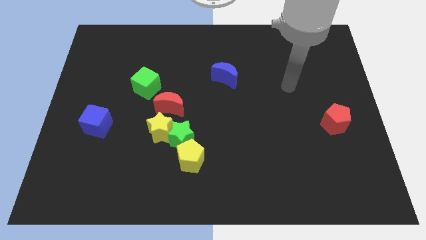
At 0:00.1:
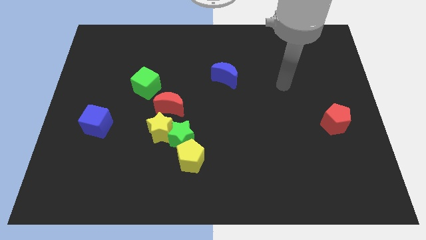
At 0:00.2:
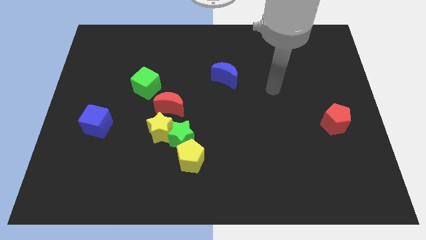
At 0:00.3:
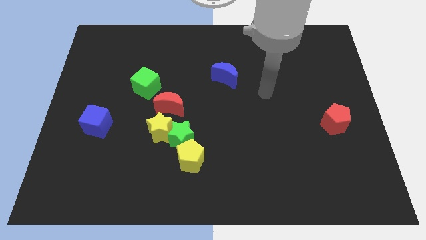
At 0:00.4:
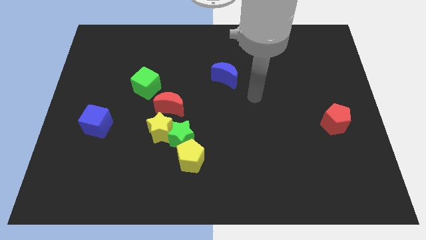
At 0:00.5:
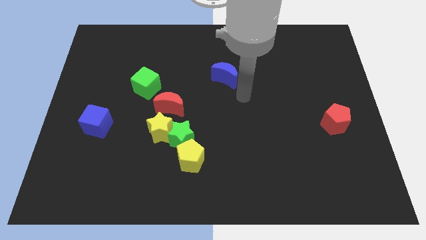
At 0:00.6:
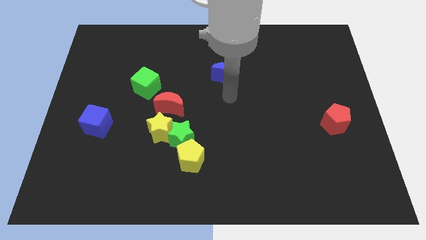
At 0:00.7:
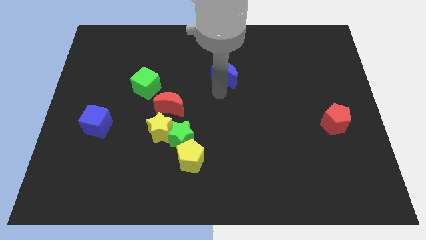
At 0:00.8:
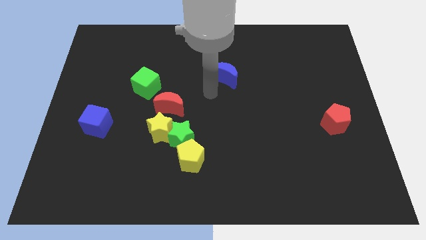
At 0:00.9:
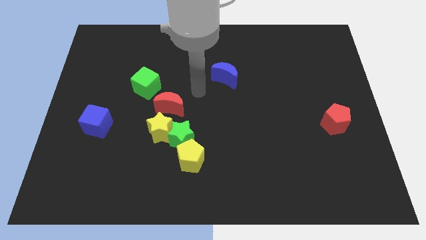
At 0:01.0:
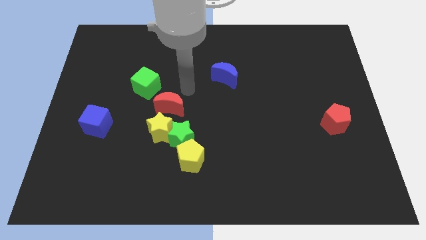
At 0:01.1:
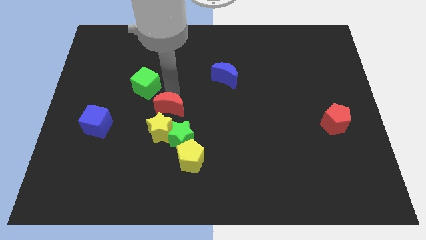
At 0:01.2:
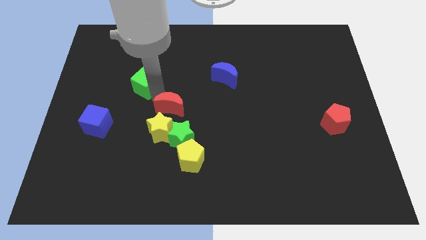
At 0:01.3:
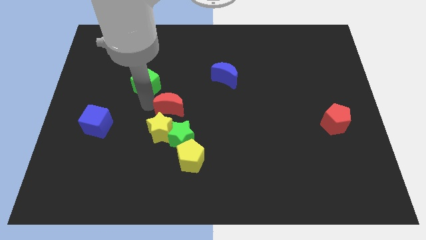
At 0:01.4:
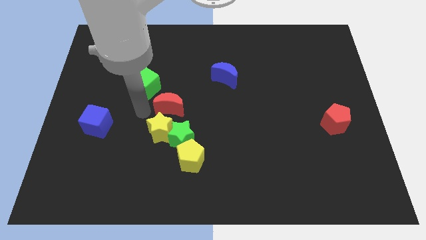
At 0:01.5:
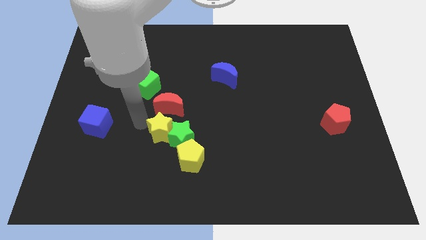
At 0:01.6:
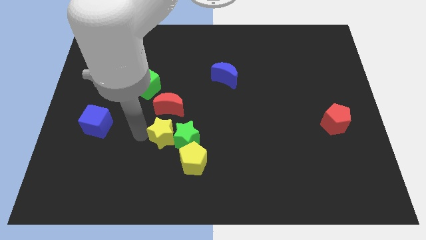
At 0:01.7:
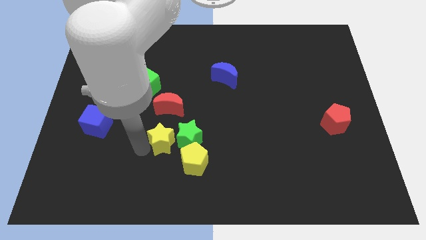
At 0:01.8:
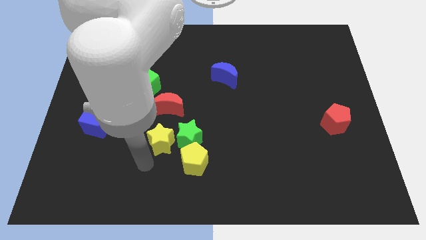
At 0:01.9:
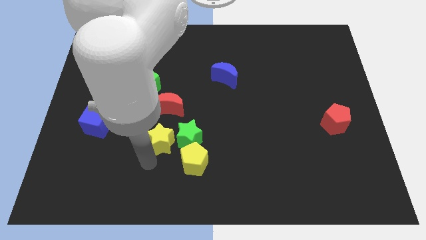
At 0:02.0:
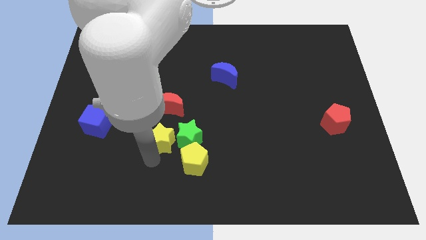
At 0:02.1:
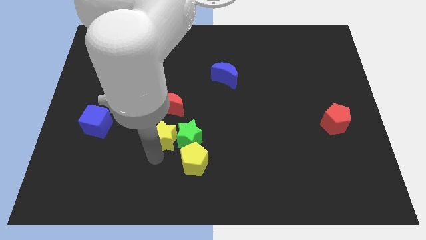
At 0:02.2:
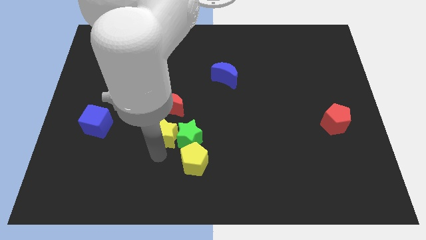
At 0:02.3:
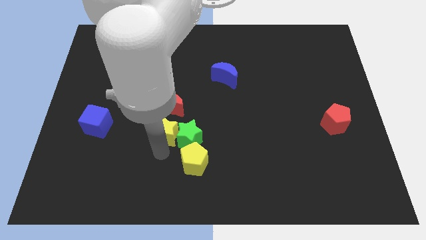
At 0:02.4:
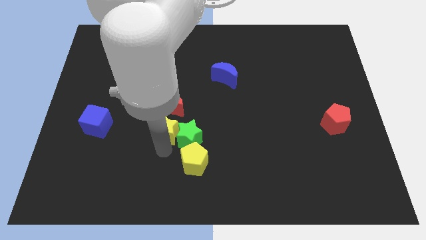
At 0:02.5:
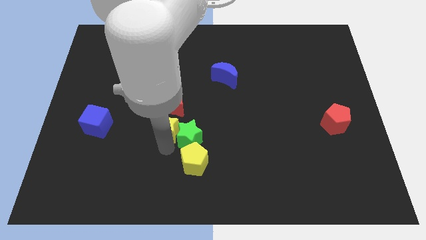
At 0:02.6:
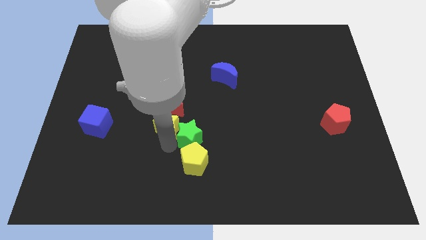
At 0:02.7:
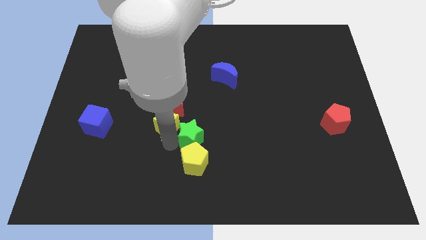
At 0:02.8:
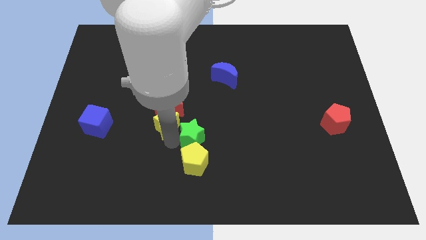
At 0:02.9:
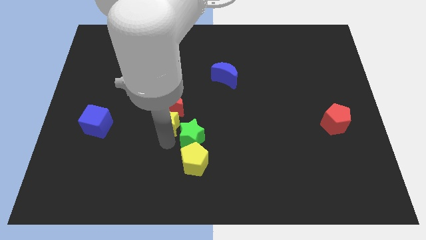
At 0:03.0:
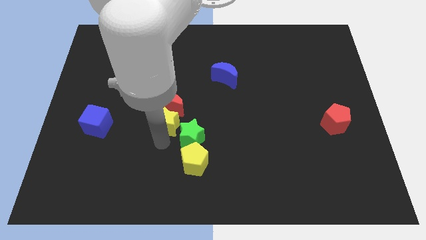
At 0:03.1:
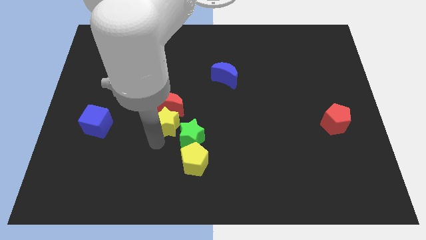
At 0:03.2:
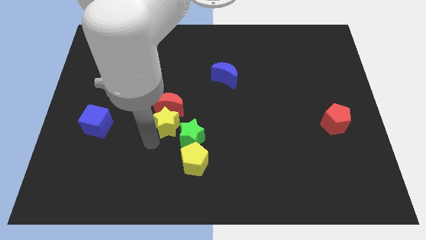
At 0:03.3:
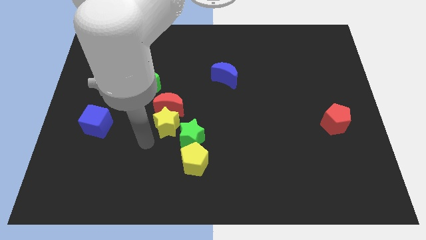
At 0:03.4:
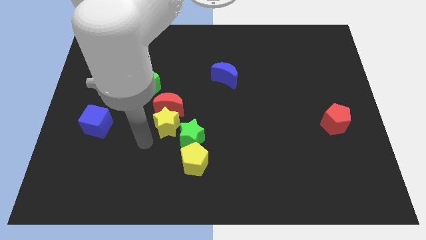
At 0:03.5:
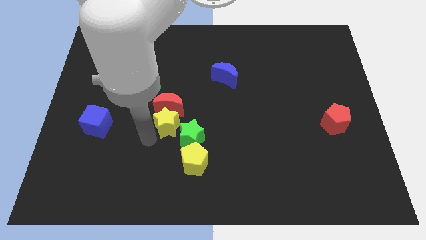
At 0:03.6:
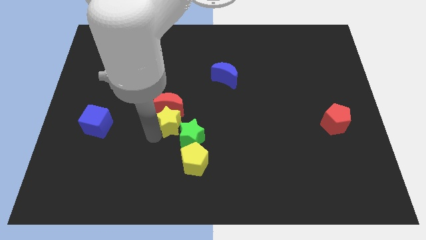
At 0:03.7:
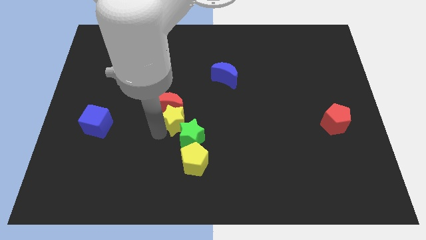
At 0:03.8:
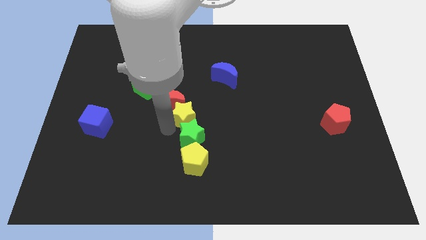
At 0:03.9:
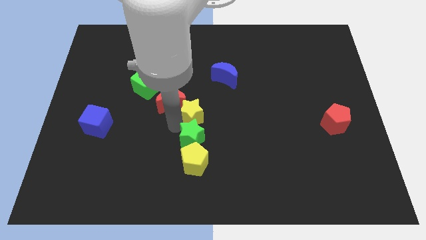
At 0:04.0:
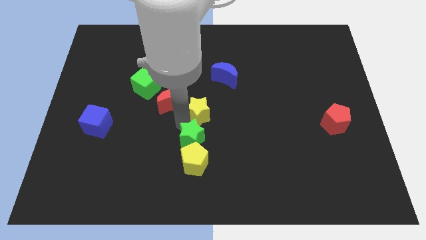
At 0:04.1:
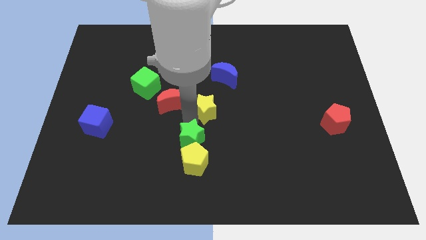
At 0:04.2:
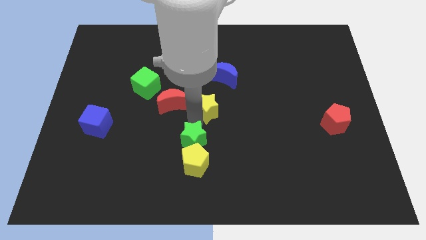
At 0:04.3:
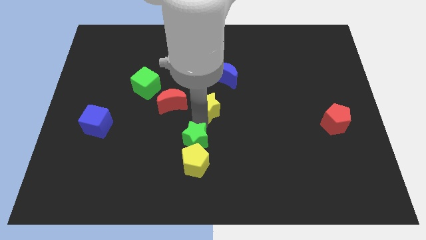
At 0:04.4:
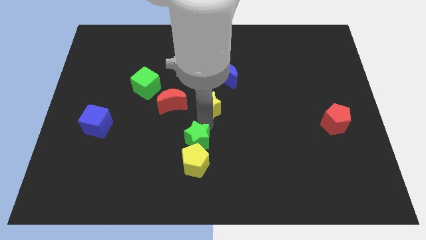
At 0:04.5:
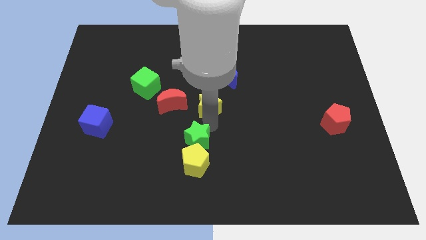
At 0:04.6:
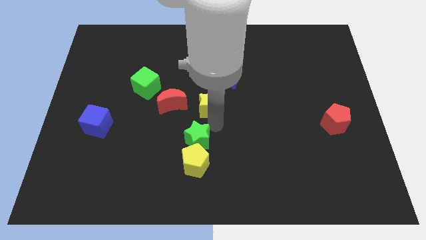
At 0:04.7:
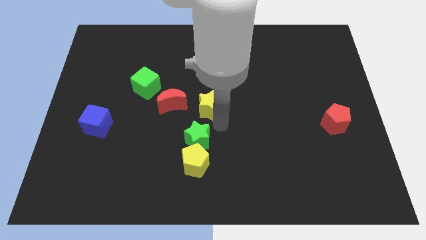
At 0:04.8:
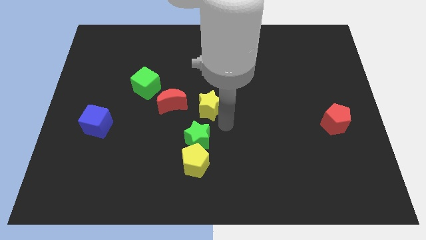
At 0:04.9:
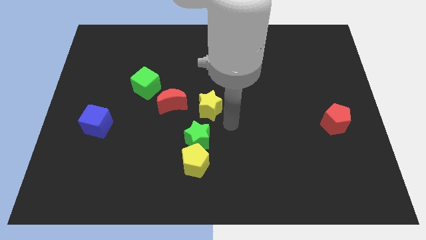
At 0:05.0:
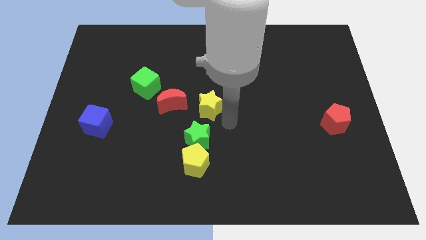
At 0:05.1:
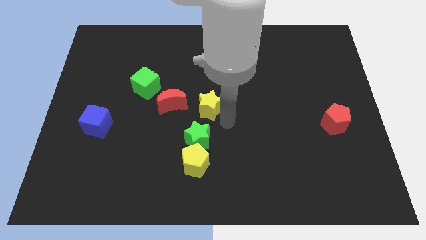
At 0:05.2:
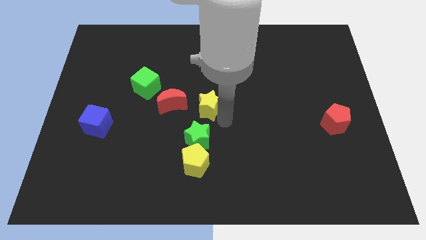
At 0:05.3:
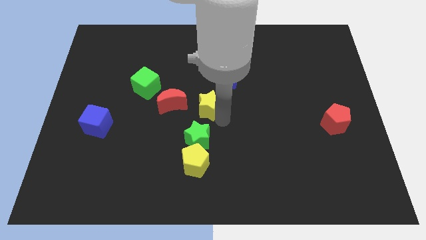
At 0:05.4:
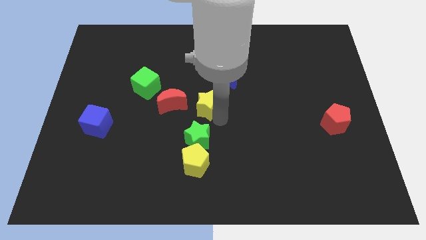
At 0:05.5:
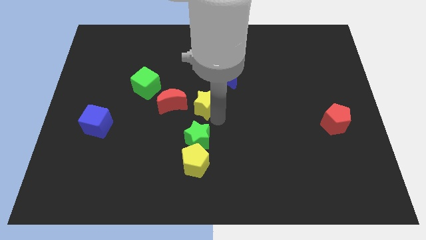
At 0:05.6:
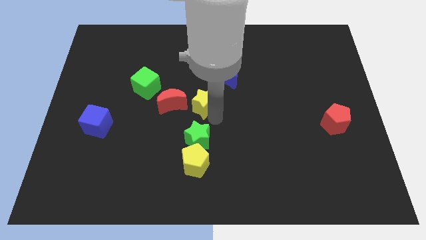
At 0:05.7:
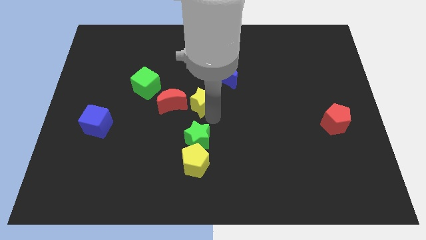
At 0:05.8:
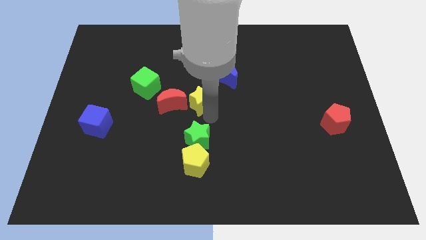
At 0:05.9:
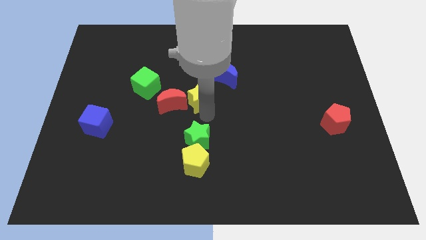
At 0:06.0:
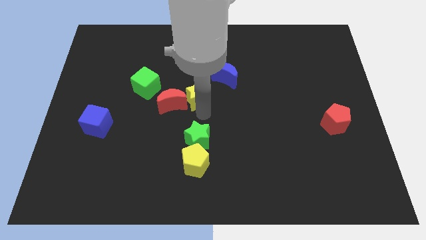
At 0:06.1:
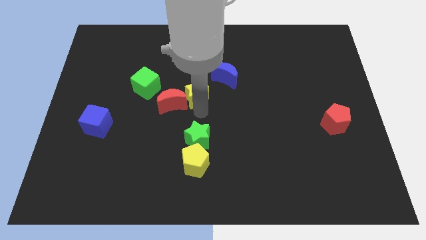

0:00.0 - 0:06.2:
slightly move the yellow star up

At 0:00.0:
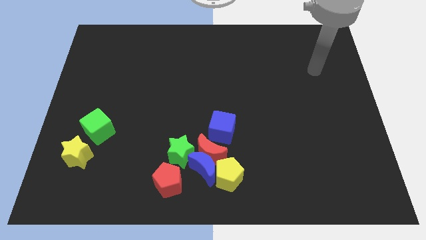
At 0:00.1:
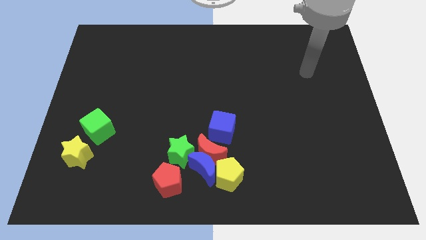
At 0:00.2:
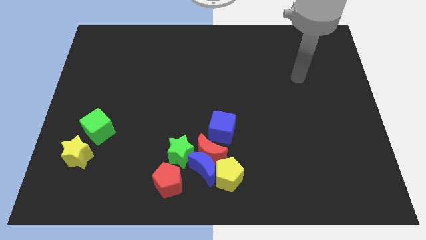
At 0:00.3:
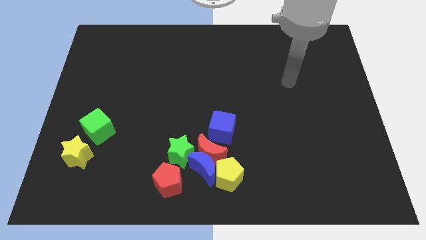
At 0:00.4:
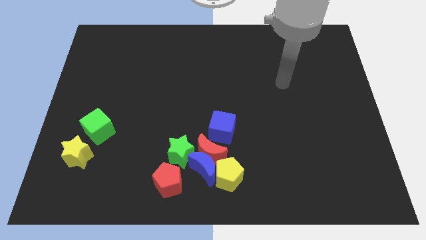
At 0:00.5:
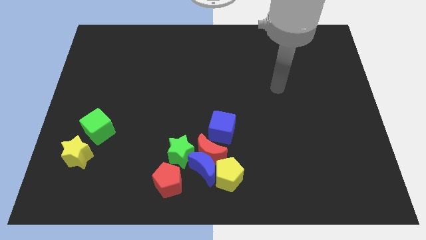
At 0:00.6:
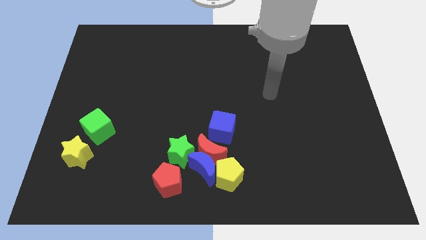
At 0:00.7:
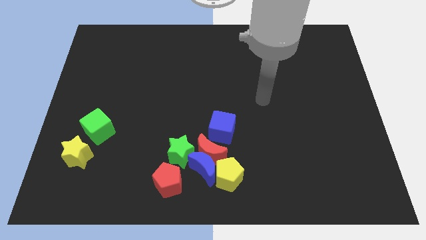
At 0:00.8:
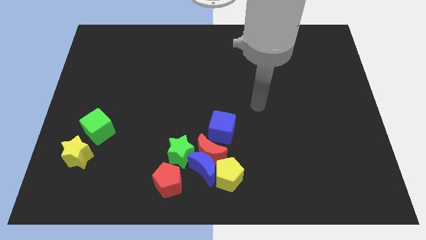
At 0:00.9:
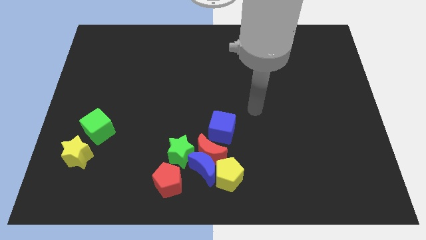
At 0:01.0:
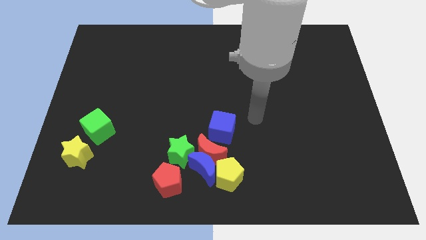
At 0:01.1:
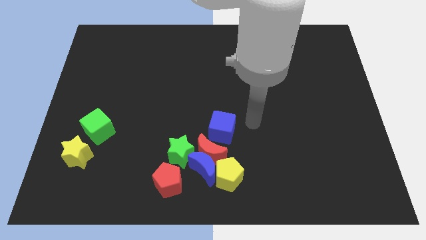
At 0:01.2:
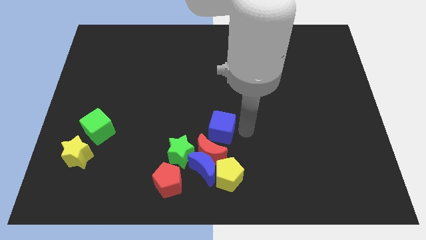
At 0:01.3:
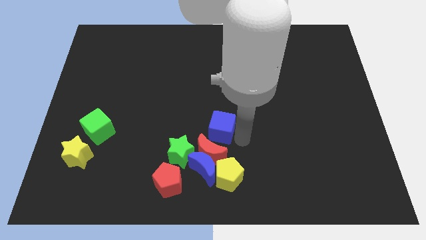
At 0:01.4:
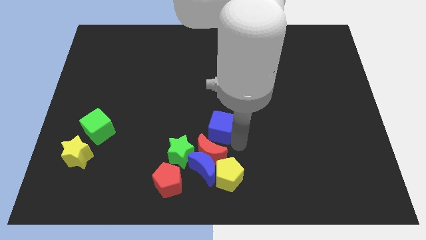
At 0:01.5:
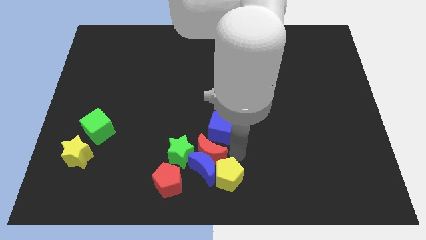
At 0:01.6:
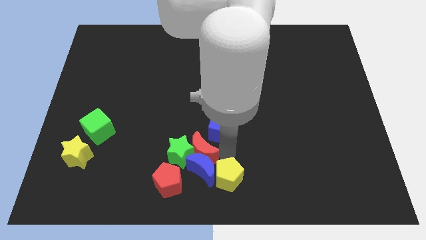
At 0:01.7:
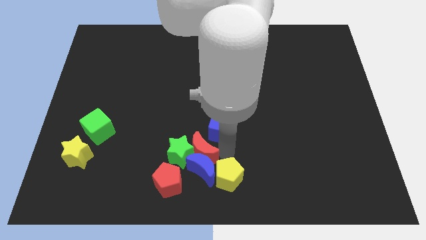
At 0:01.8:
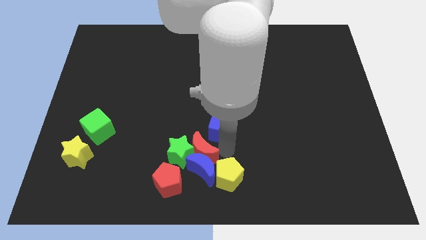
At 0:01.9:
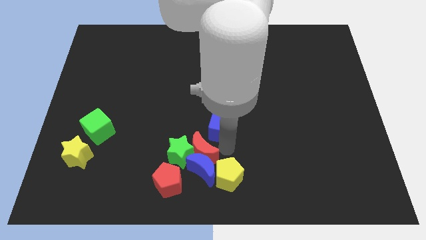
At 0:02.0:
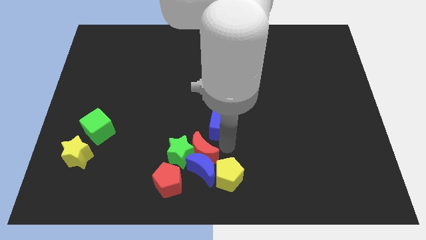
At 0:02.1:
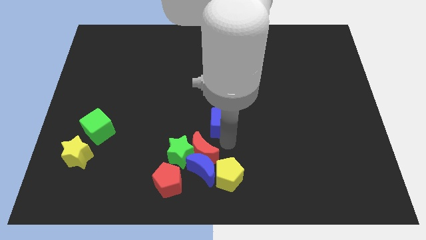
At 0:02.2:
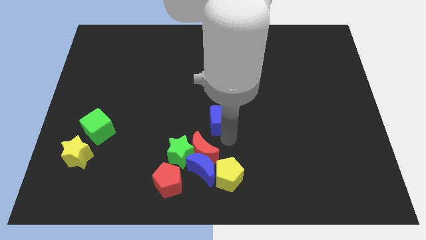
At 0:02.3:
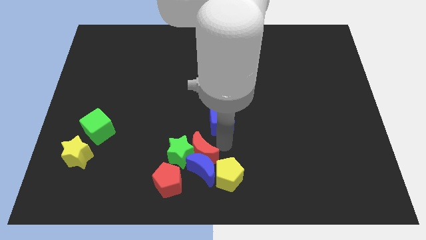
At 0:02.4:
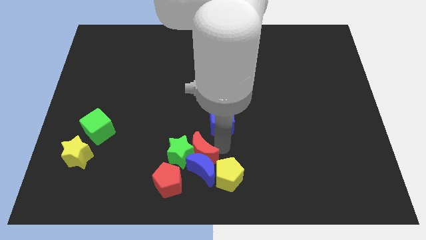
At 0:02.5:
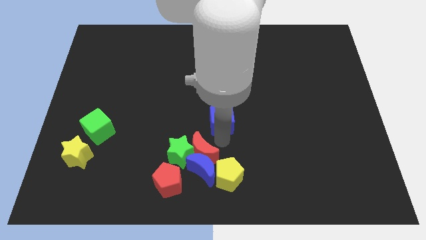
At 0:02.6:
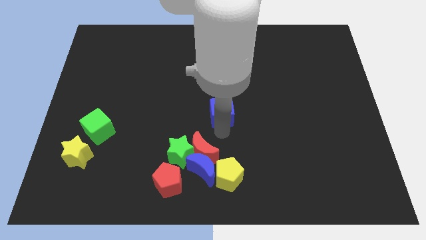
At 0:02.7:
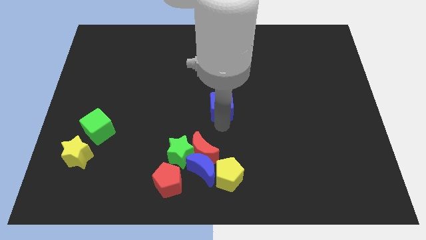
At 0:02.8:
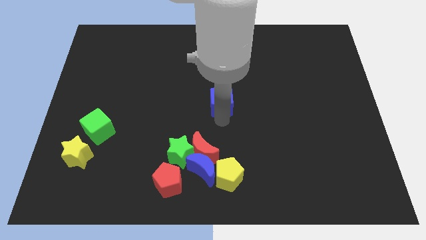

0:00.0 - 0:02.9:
move the blue cube a little bit upwards
